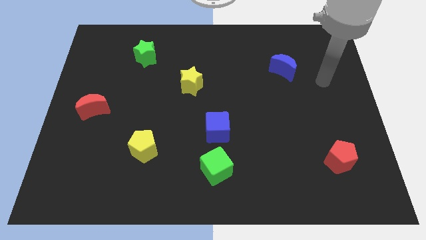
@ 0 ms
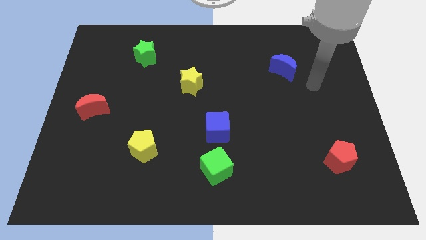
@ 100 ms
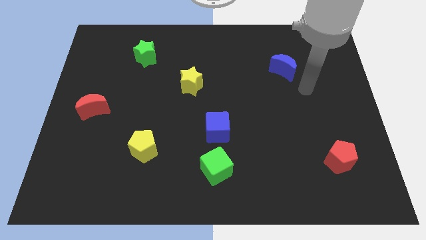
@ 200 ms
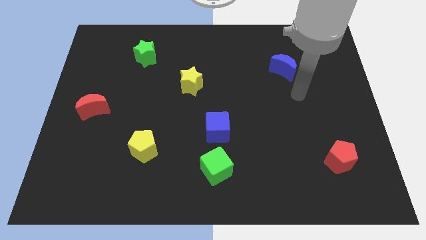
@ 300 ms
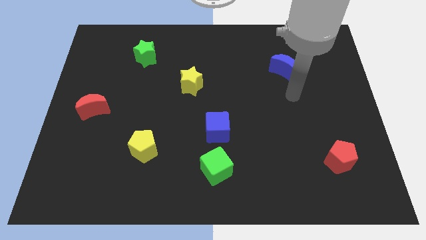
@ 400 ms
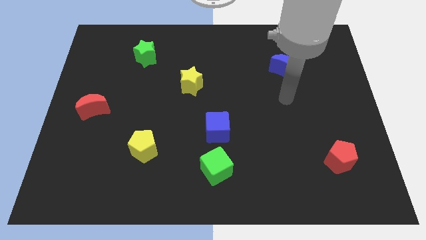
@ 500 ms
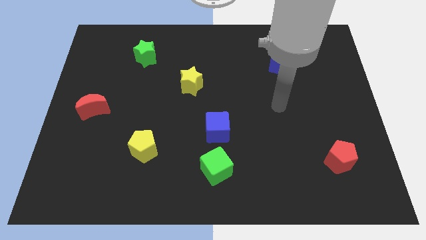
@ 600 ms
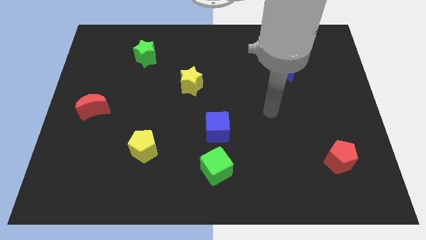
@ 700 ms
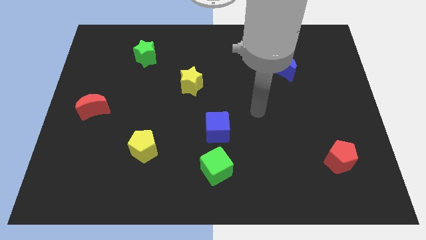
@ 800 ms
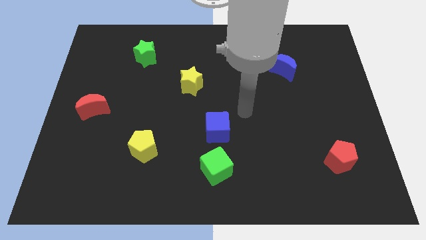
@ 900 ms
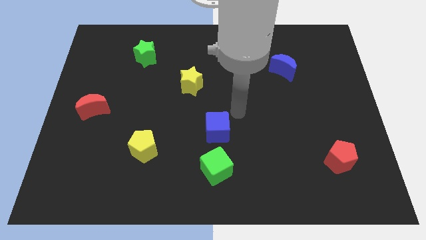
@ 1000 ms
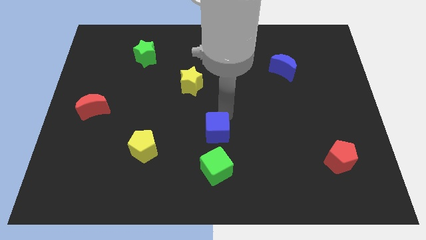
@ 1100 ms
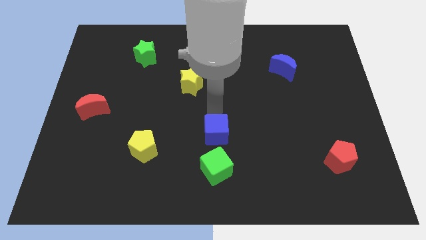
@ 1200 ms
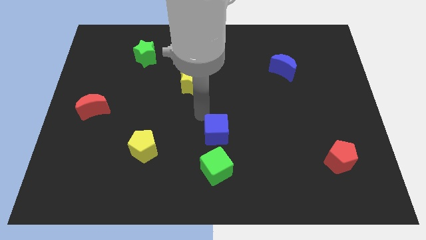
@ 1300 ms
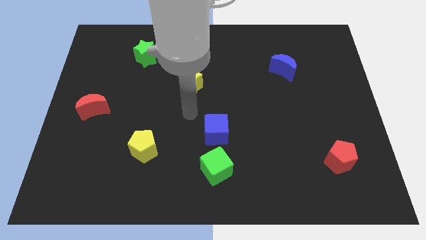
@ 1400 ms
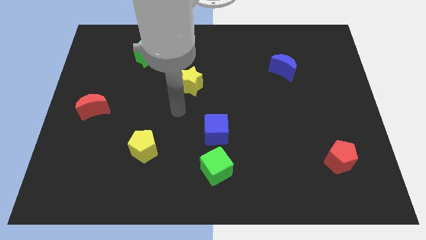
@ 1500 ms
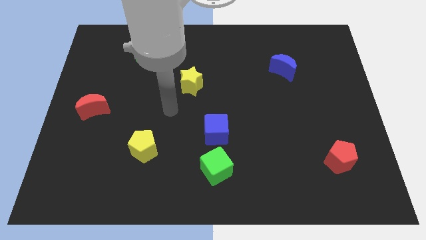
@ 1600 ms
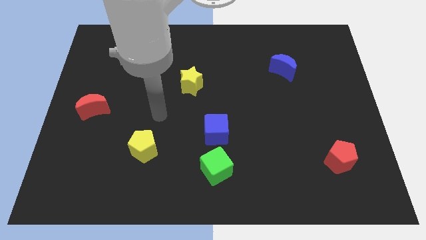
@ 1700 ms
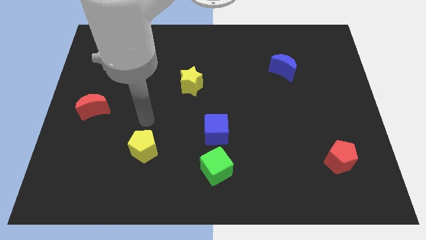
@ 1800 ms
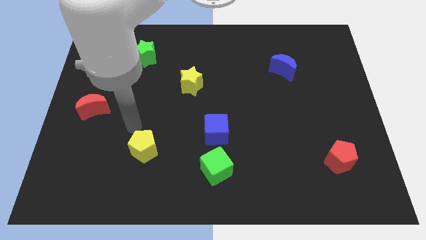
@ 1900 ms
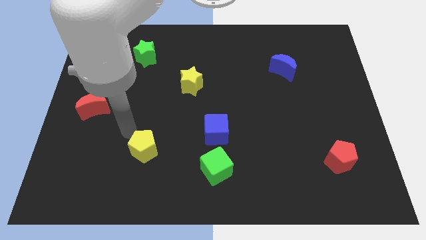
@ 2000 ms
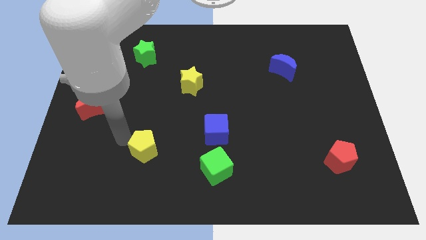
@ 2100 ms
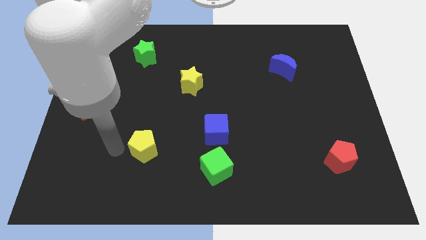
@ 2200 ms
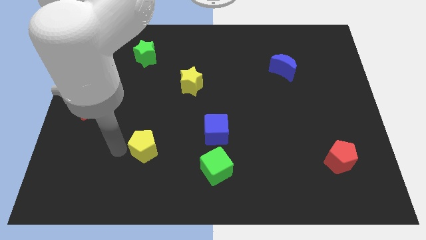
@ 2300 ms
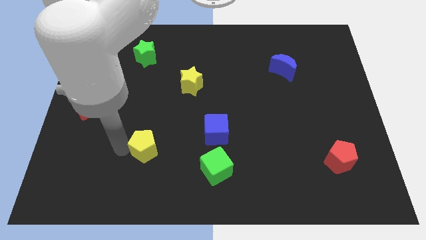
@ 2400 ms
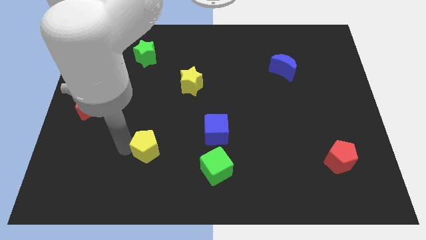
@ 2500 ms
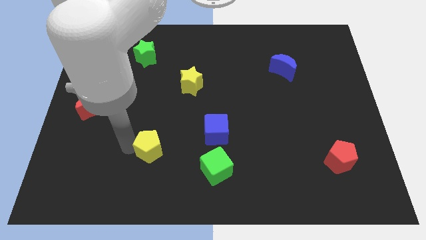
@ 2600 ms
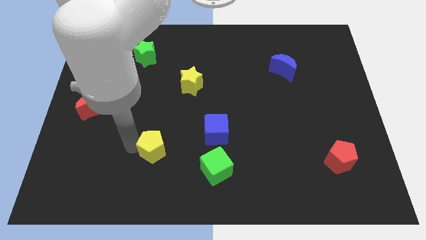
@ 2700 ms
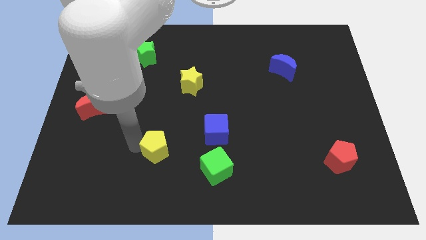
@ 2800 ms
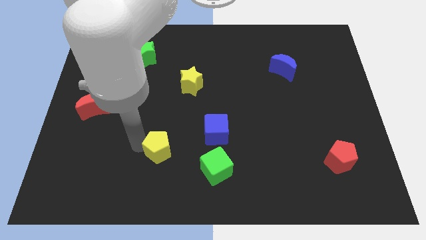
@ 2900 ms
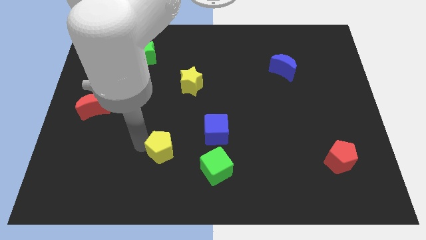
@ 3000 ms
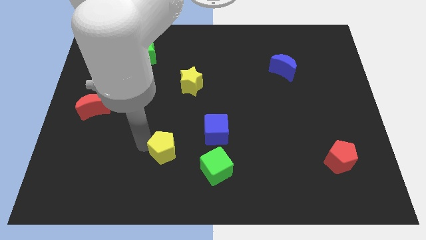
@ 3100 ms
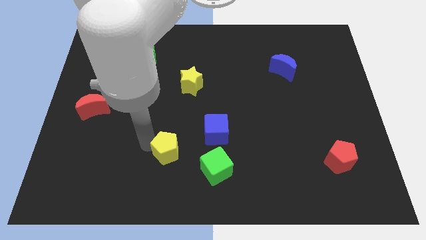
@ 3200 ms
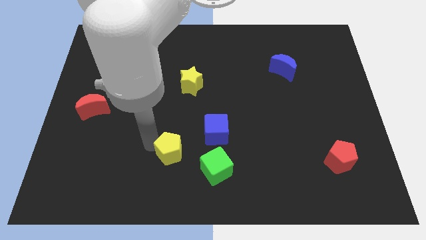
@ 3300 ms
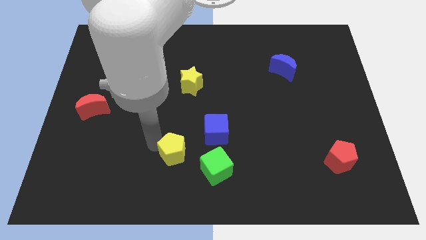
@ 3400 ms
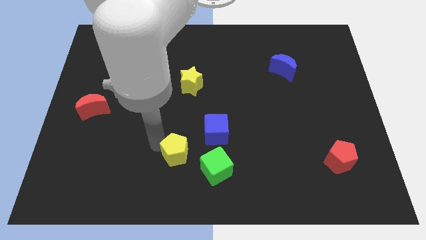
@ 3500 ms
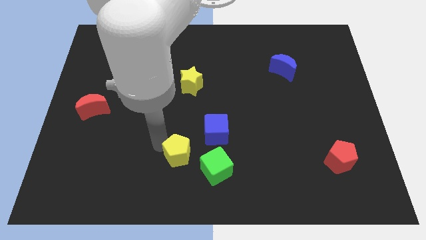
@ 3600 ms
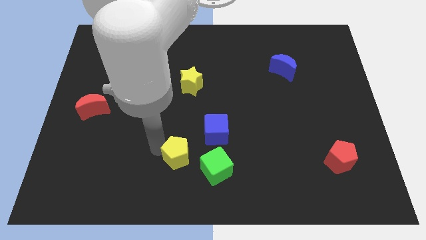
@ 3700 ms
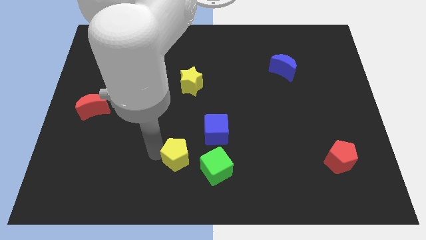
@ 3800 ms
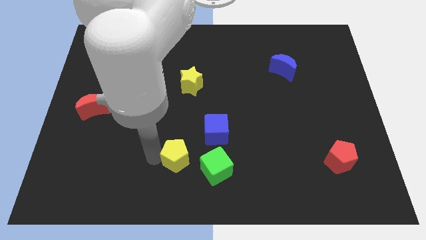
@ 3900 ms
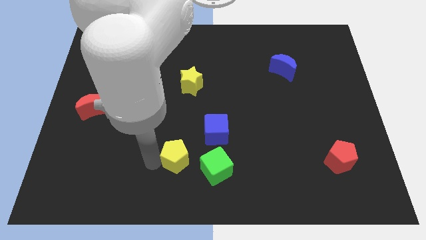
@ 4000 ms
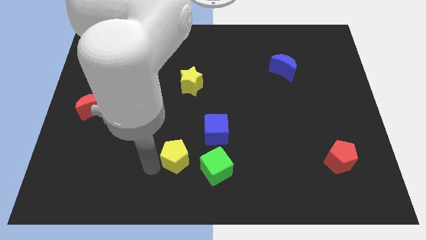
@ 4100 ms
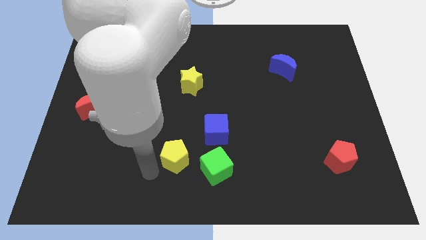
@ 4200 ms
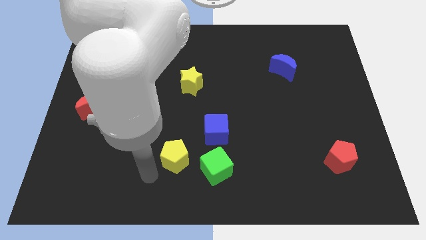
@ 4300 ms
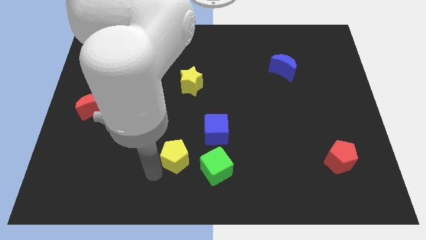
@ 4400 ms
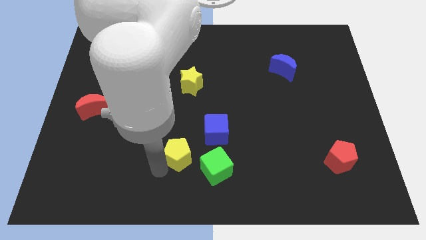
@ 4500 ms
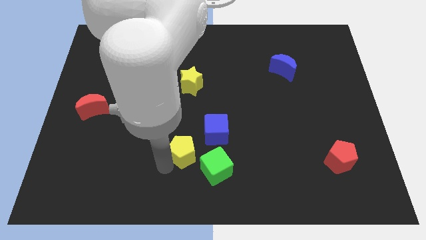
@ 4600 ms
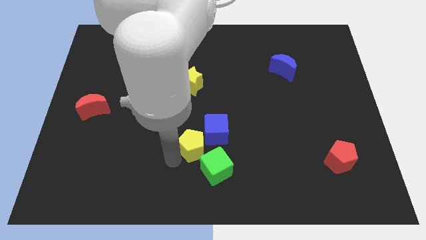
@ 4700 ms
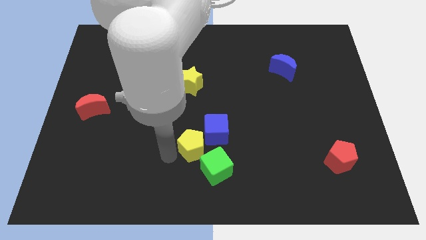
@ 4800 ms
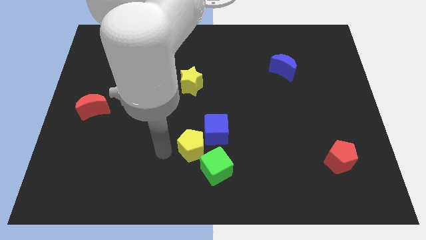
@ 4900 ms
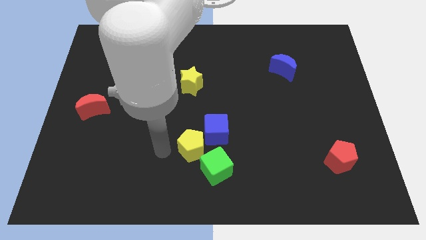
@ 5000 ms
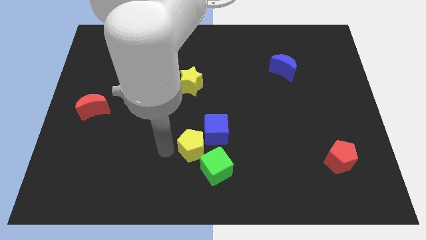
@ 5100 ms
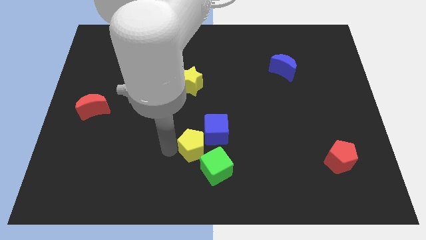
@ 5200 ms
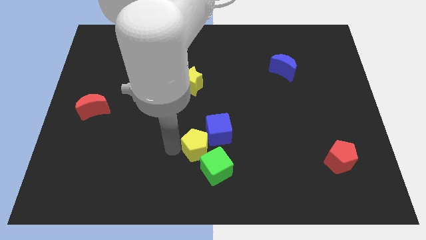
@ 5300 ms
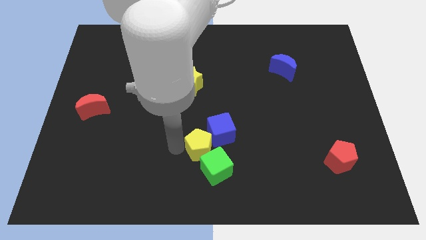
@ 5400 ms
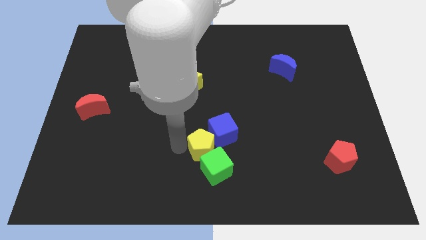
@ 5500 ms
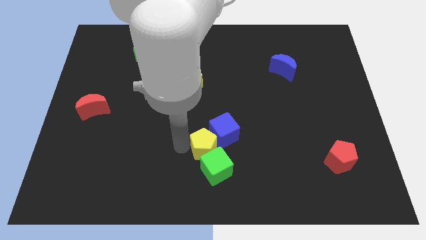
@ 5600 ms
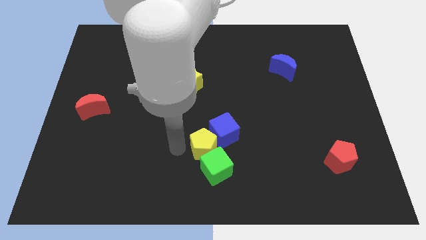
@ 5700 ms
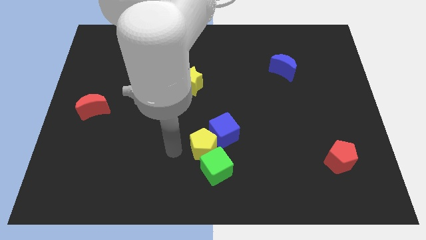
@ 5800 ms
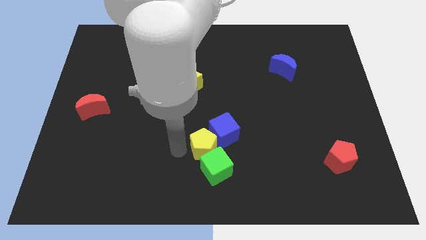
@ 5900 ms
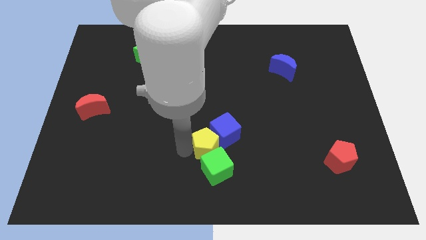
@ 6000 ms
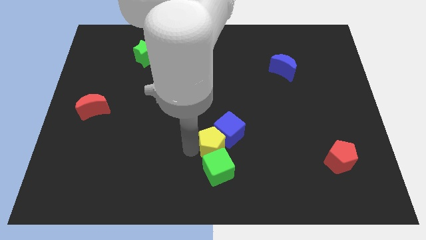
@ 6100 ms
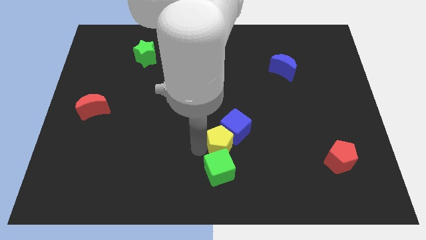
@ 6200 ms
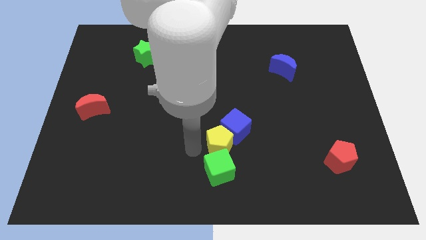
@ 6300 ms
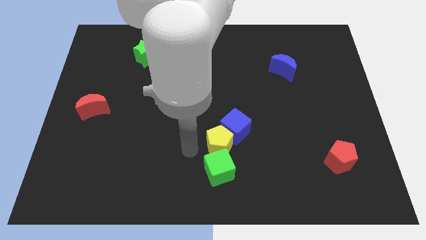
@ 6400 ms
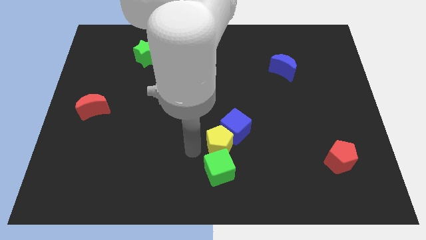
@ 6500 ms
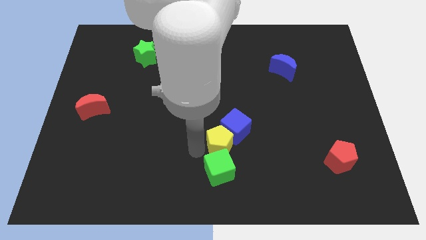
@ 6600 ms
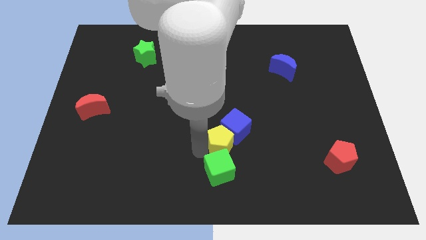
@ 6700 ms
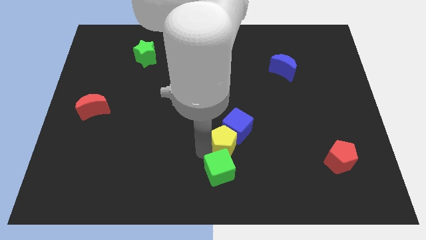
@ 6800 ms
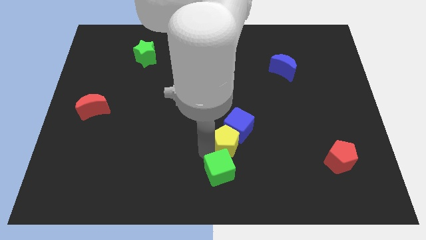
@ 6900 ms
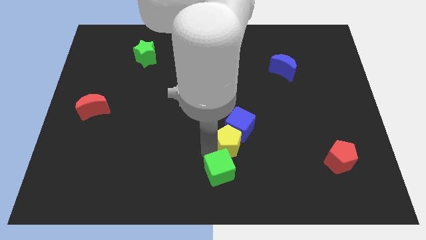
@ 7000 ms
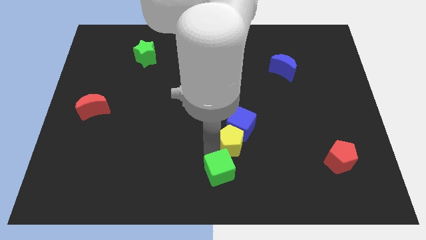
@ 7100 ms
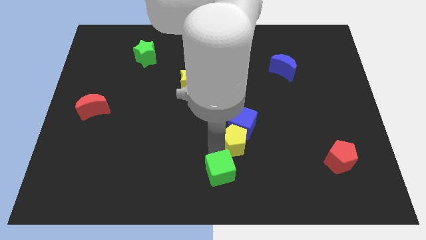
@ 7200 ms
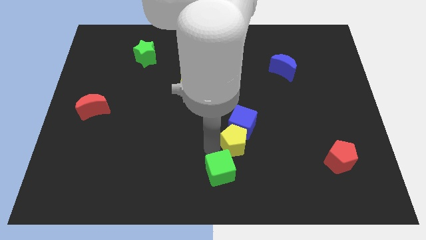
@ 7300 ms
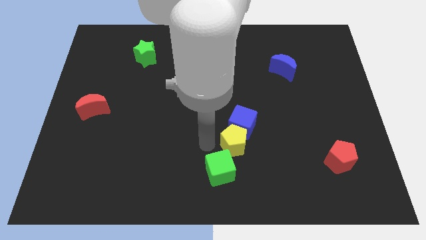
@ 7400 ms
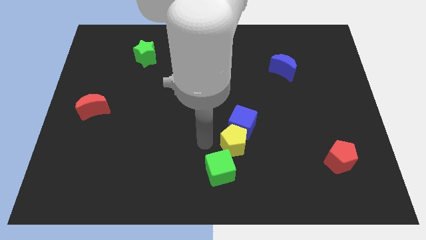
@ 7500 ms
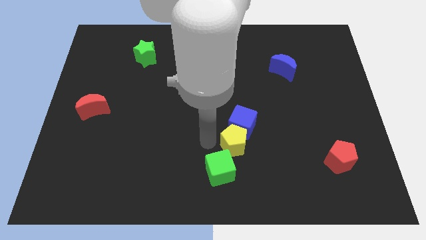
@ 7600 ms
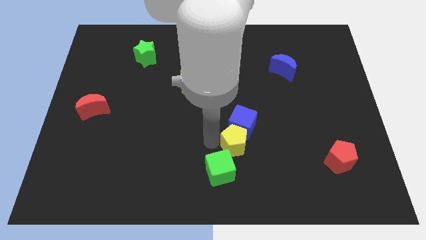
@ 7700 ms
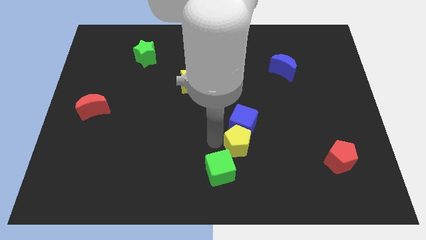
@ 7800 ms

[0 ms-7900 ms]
move the yellow pentagon to the right

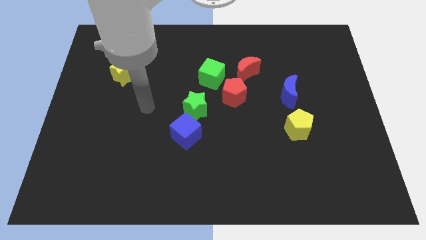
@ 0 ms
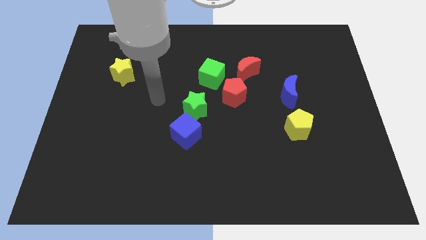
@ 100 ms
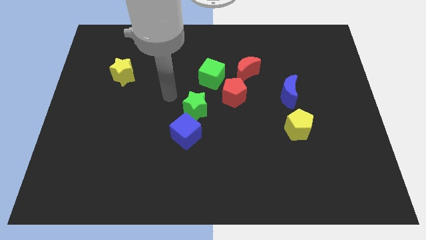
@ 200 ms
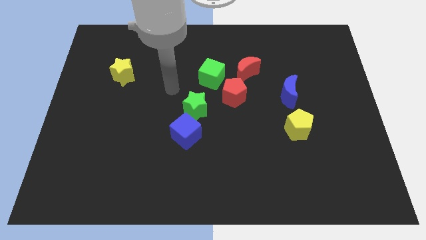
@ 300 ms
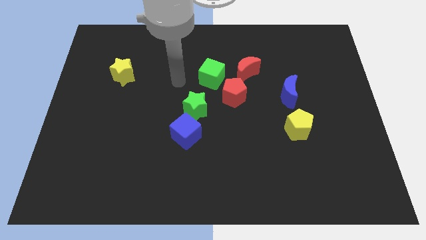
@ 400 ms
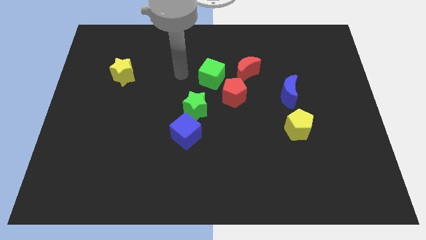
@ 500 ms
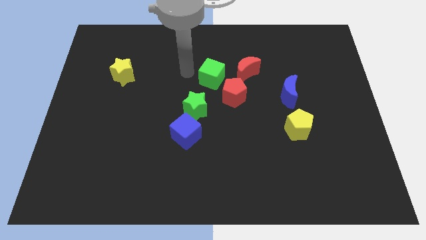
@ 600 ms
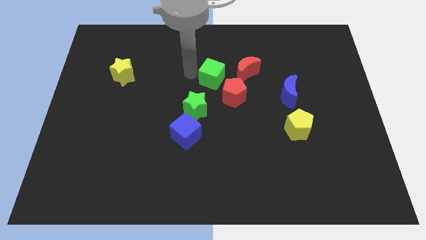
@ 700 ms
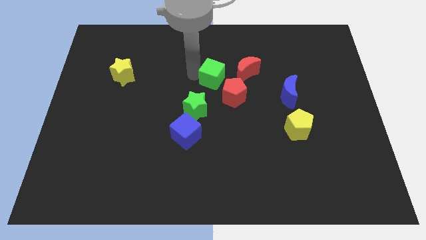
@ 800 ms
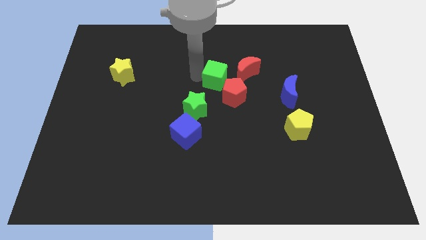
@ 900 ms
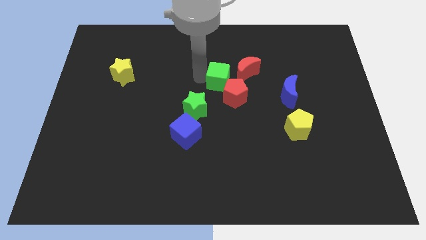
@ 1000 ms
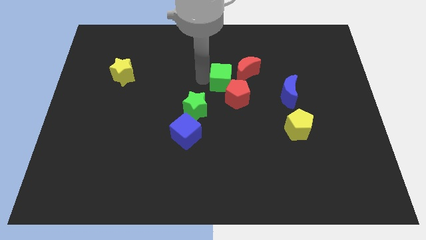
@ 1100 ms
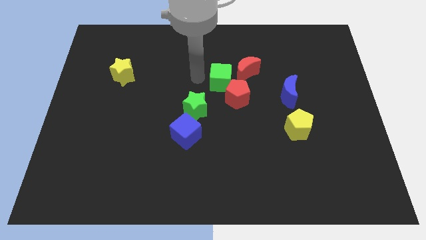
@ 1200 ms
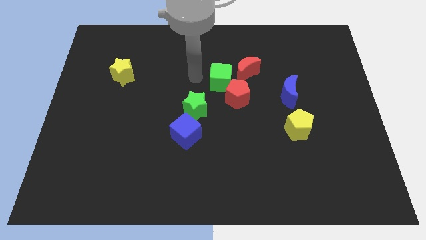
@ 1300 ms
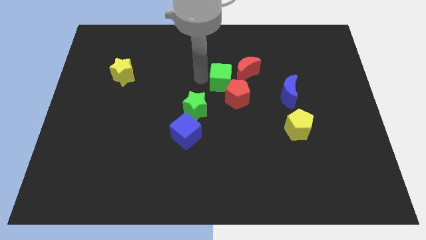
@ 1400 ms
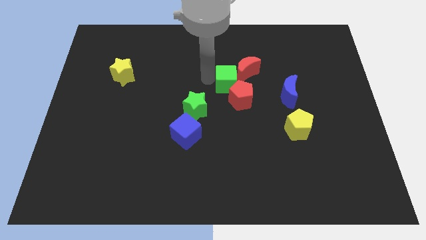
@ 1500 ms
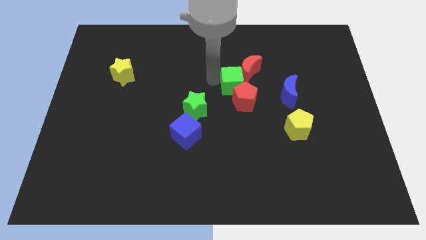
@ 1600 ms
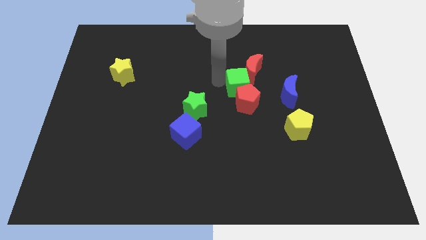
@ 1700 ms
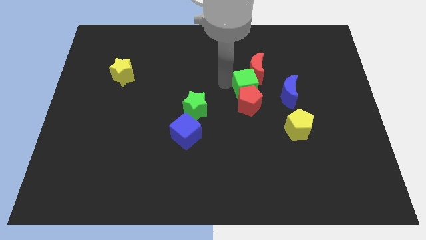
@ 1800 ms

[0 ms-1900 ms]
slightly slide the green cube right
